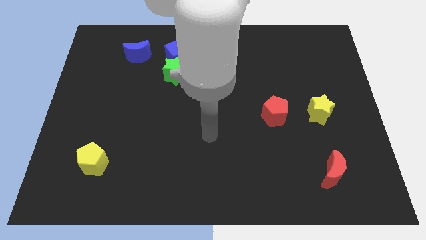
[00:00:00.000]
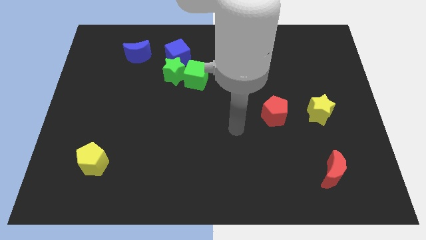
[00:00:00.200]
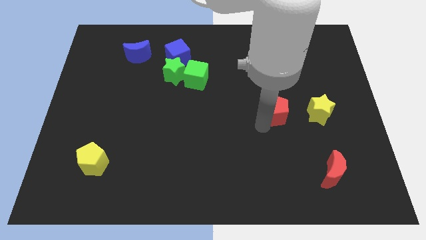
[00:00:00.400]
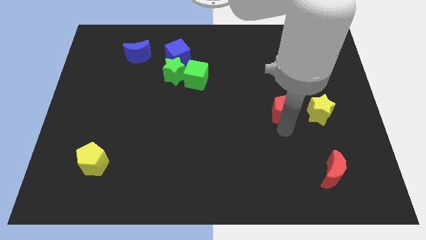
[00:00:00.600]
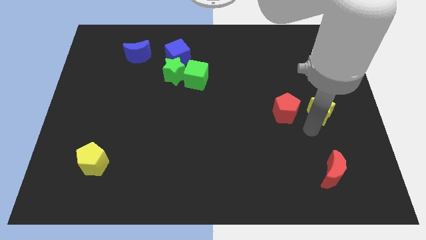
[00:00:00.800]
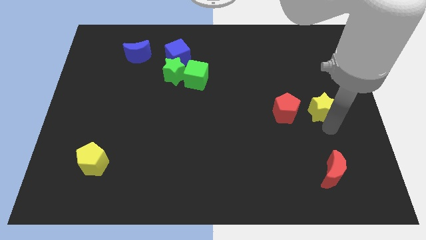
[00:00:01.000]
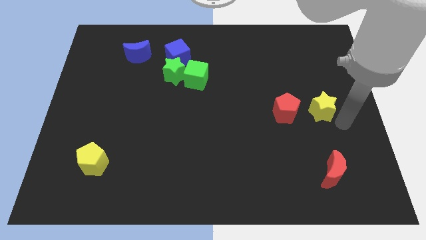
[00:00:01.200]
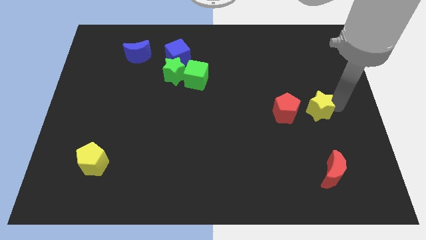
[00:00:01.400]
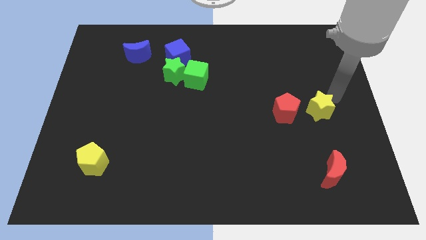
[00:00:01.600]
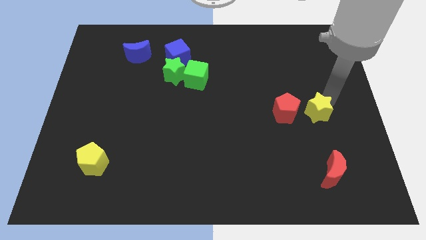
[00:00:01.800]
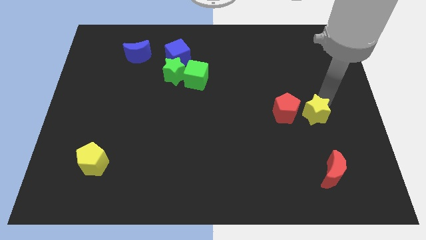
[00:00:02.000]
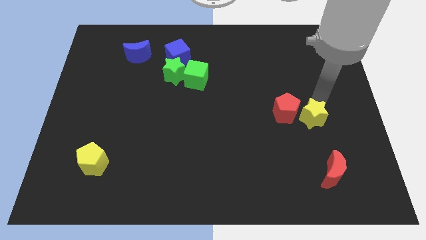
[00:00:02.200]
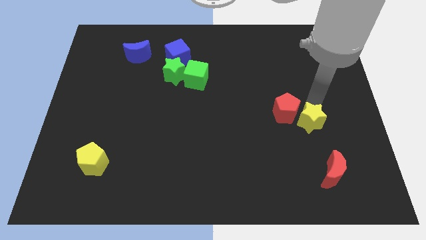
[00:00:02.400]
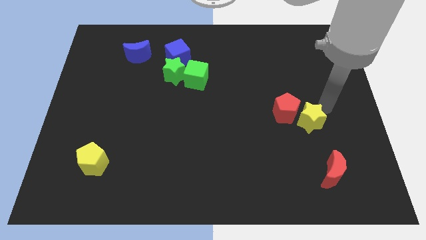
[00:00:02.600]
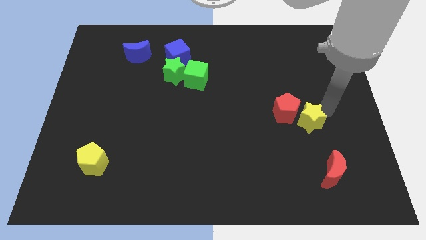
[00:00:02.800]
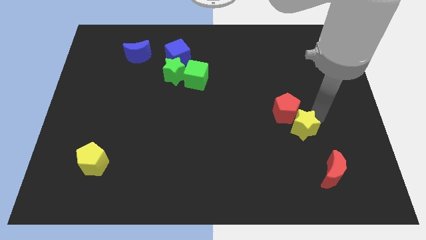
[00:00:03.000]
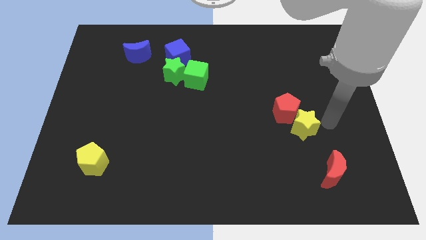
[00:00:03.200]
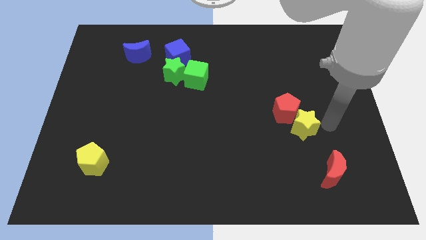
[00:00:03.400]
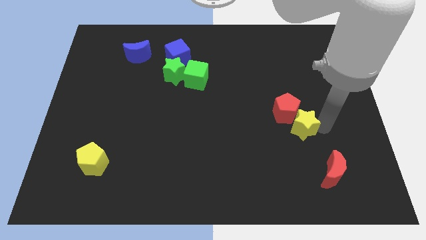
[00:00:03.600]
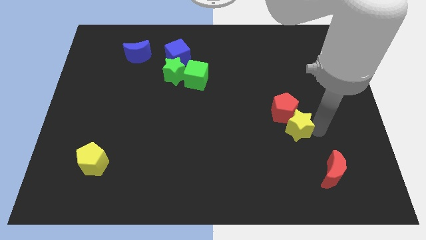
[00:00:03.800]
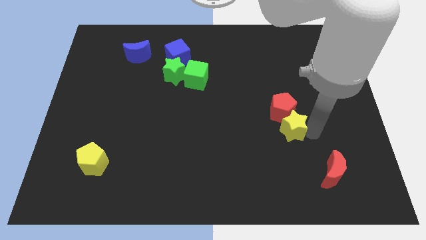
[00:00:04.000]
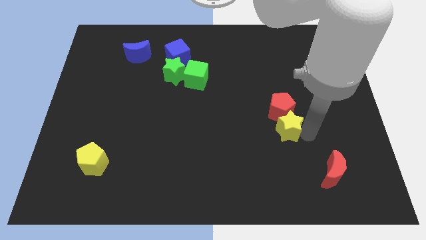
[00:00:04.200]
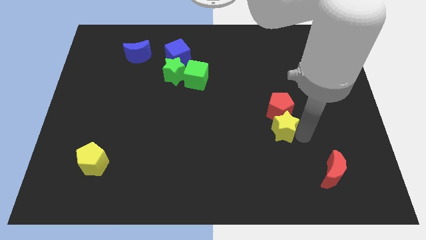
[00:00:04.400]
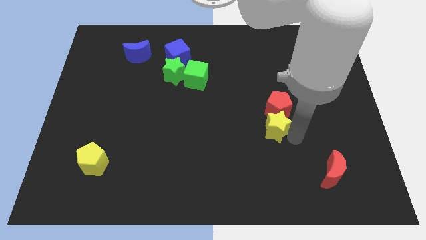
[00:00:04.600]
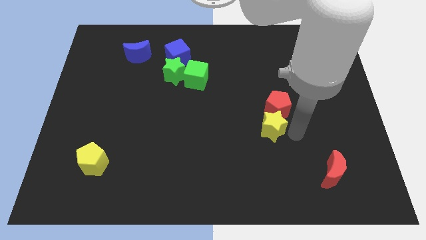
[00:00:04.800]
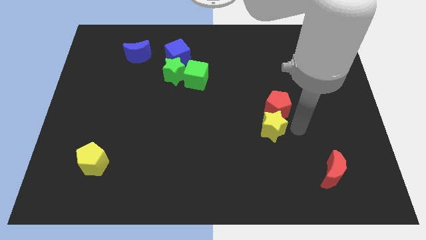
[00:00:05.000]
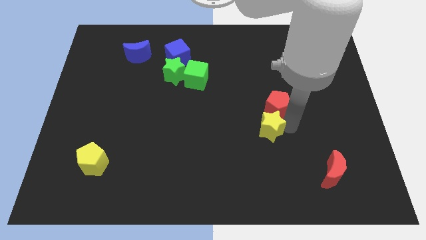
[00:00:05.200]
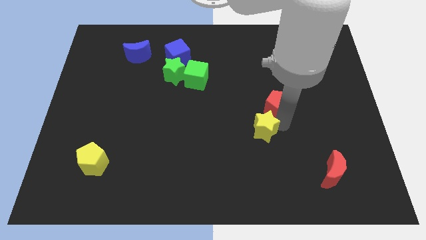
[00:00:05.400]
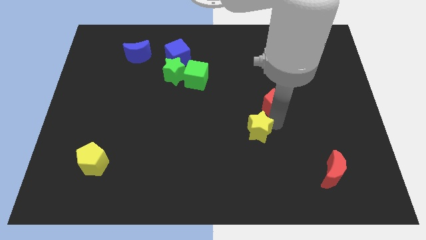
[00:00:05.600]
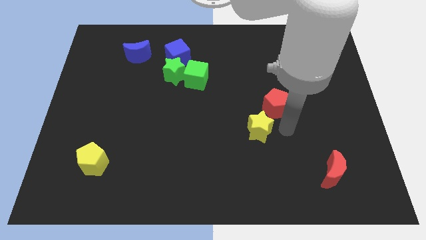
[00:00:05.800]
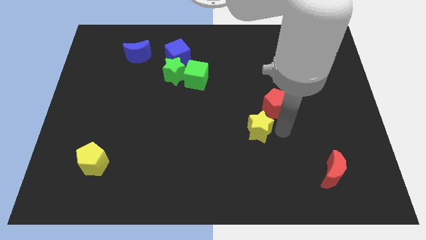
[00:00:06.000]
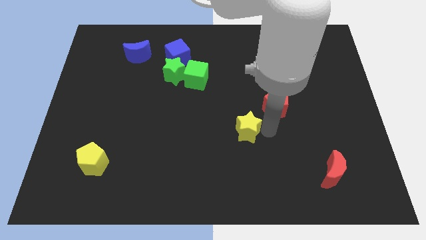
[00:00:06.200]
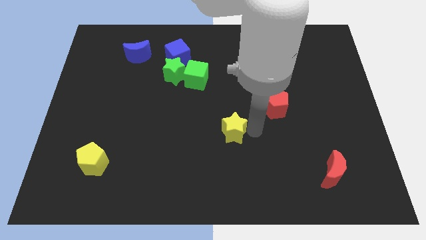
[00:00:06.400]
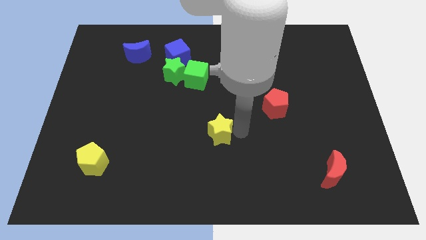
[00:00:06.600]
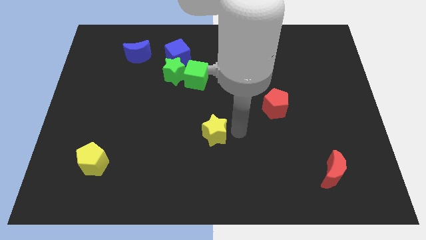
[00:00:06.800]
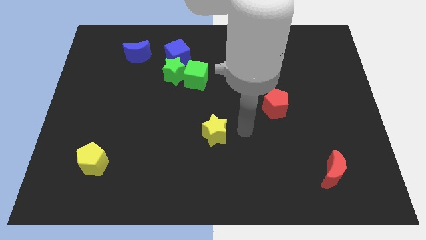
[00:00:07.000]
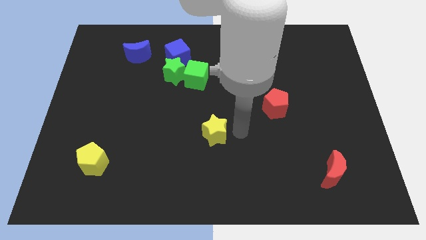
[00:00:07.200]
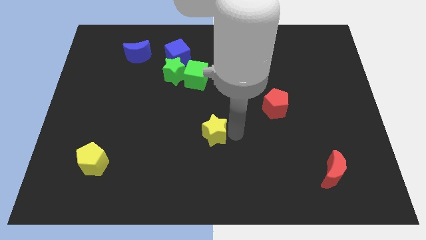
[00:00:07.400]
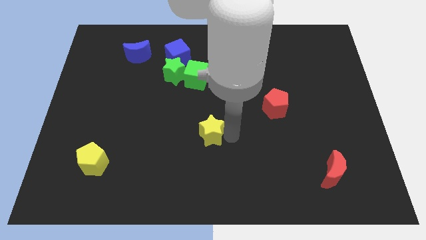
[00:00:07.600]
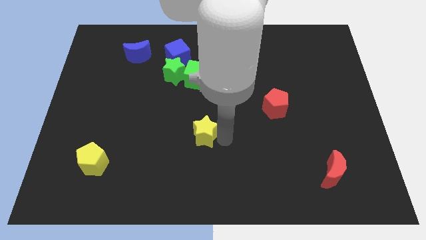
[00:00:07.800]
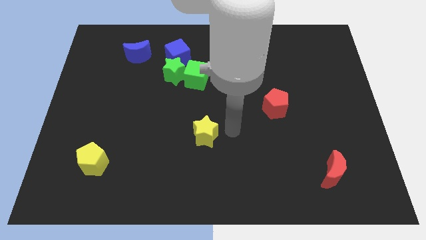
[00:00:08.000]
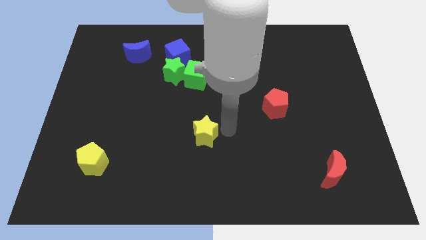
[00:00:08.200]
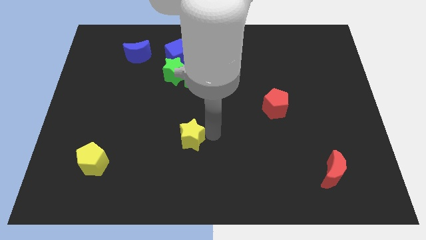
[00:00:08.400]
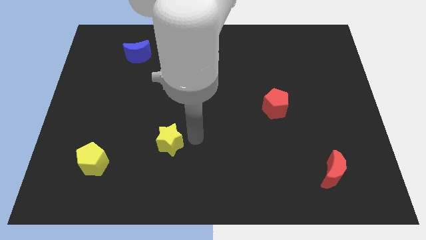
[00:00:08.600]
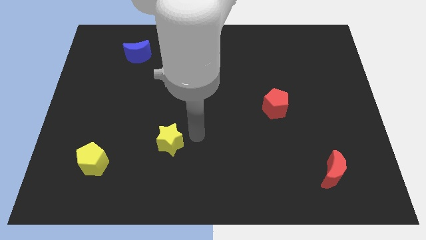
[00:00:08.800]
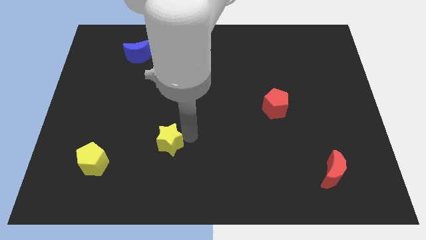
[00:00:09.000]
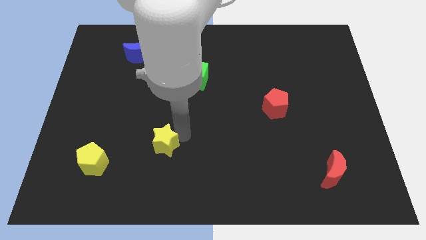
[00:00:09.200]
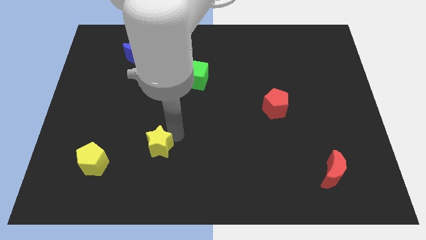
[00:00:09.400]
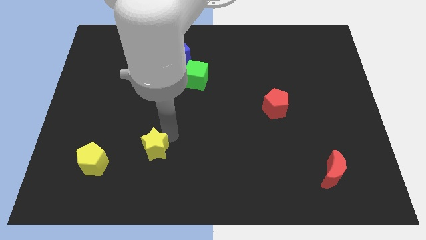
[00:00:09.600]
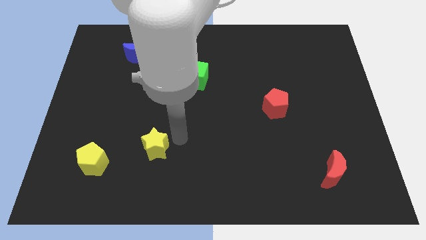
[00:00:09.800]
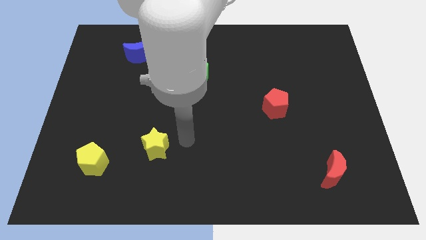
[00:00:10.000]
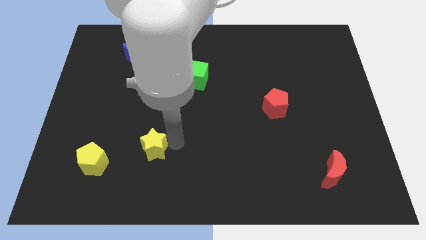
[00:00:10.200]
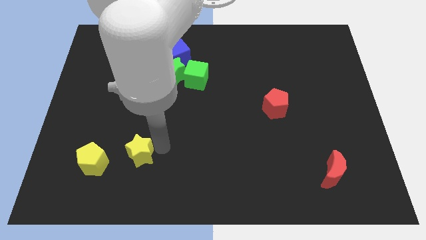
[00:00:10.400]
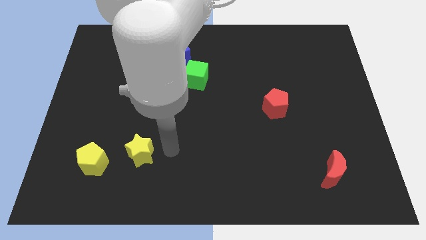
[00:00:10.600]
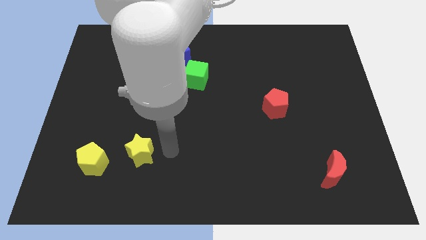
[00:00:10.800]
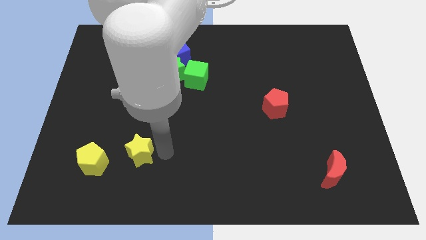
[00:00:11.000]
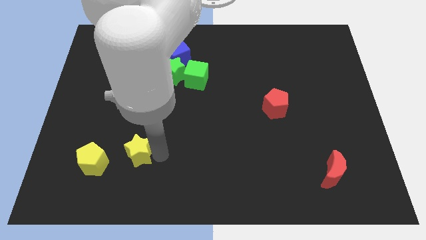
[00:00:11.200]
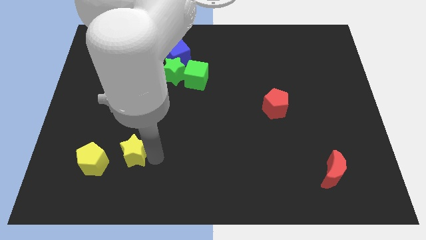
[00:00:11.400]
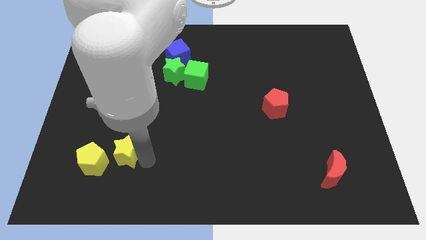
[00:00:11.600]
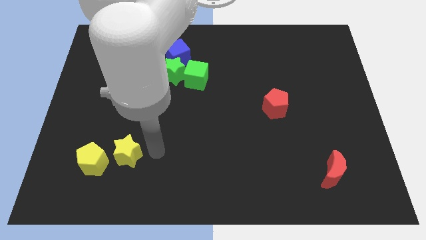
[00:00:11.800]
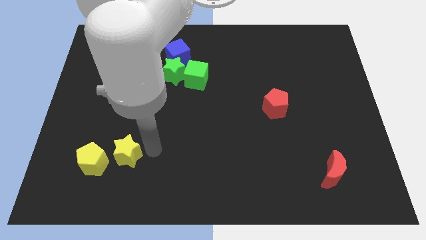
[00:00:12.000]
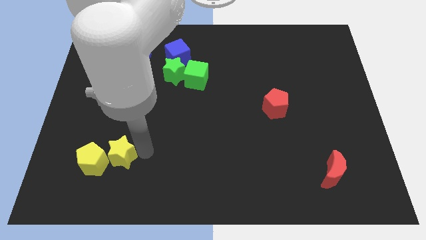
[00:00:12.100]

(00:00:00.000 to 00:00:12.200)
put the yellow star towards the yellow pentagon
